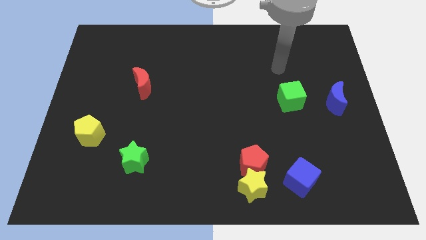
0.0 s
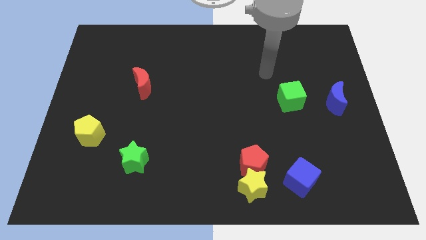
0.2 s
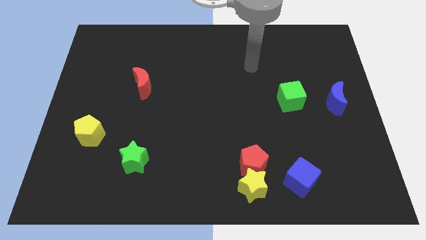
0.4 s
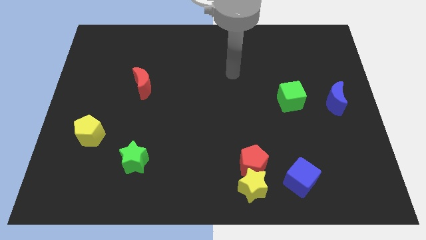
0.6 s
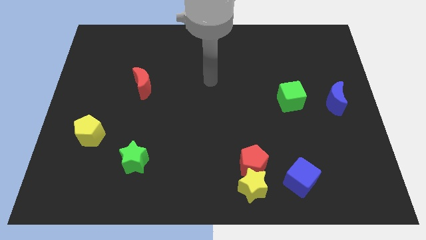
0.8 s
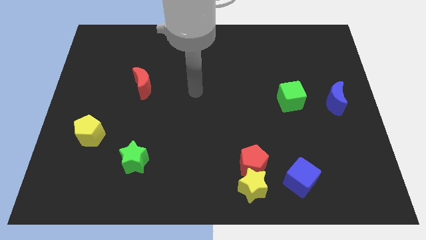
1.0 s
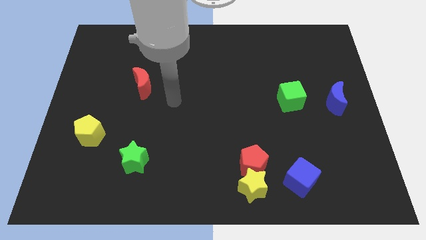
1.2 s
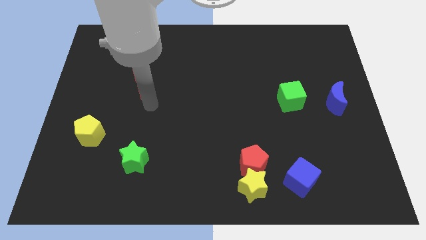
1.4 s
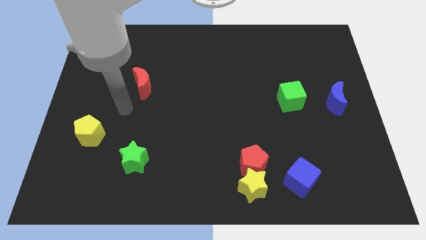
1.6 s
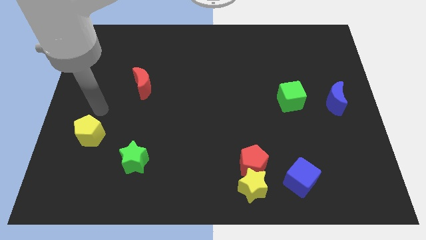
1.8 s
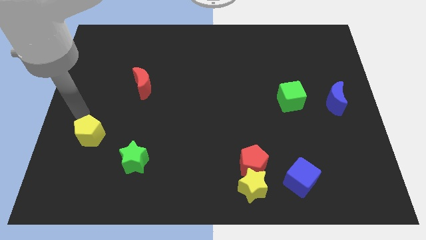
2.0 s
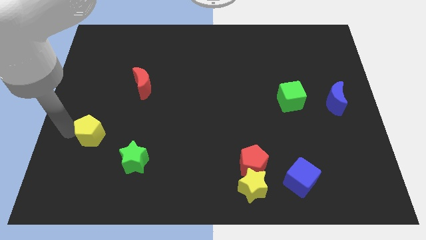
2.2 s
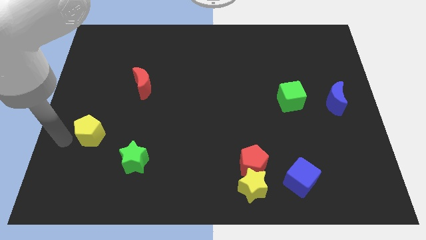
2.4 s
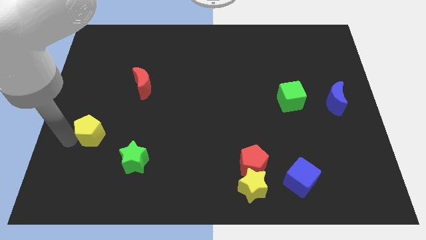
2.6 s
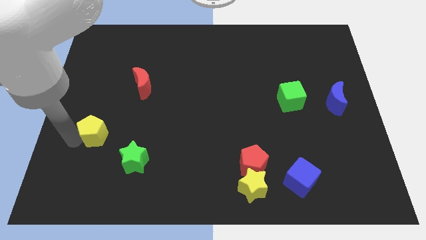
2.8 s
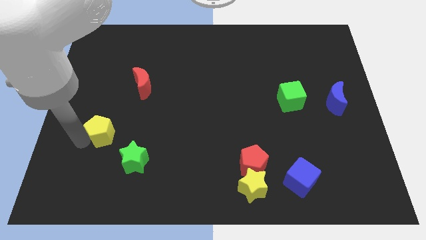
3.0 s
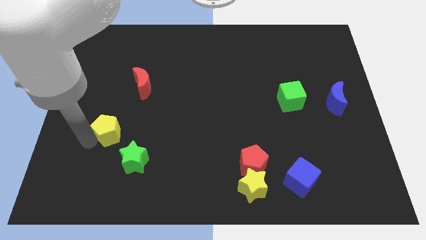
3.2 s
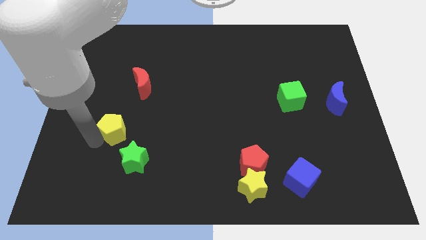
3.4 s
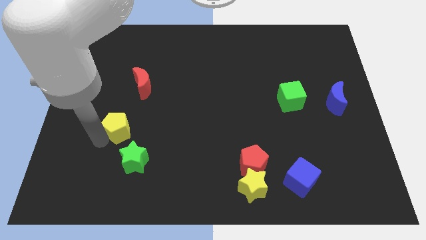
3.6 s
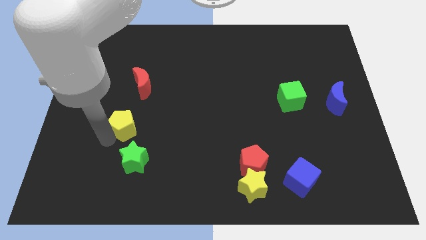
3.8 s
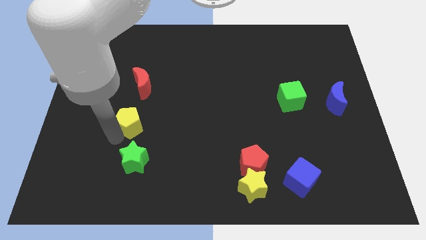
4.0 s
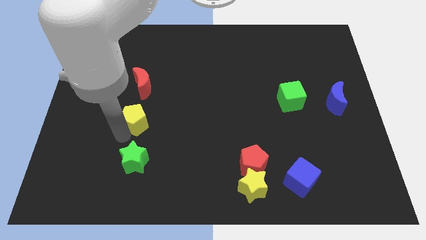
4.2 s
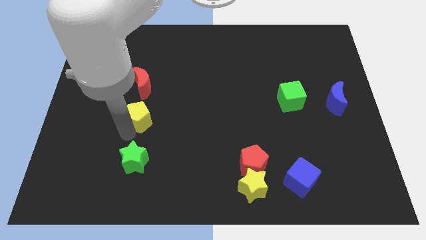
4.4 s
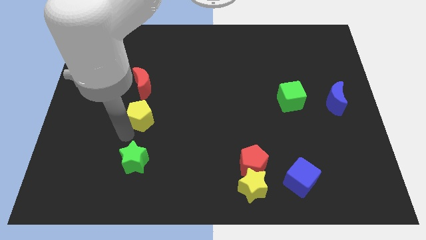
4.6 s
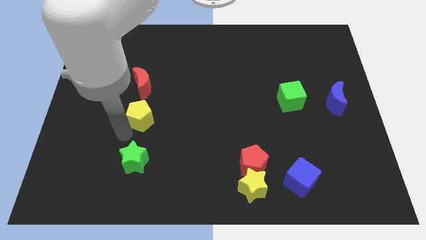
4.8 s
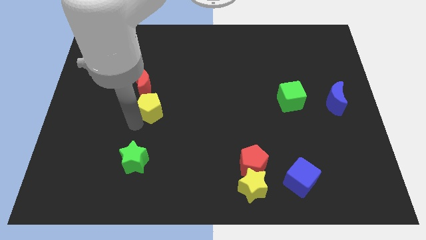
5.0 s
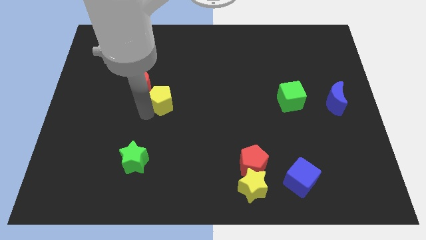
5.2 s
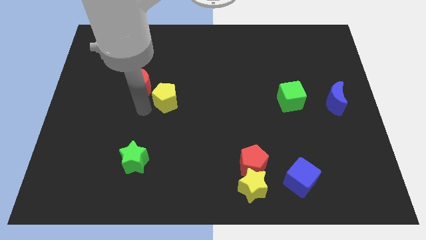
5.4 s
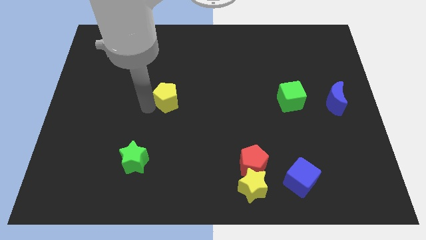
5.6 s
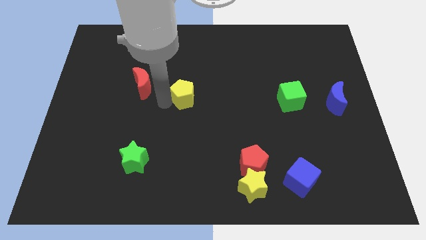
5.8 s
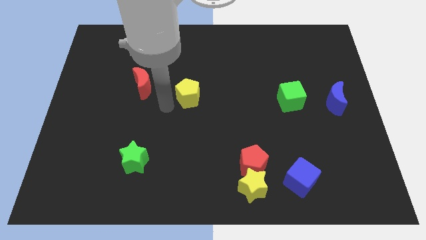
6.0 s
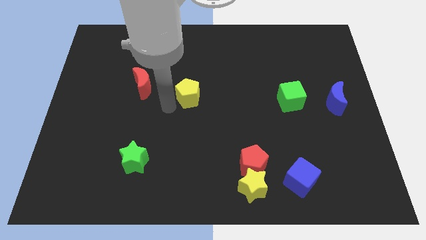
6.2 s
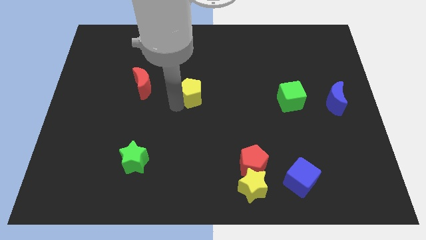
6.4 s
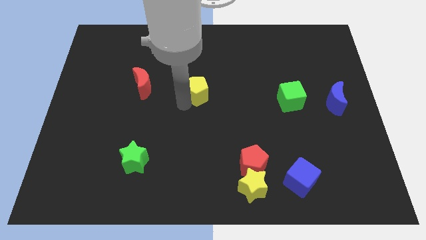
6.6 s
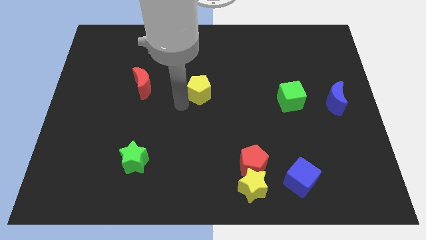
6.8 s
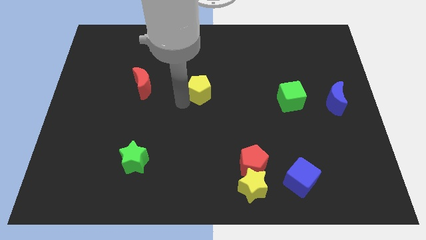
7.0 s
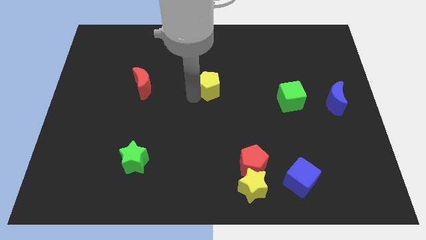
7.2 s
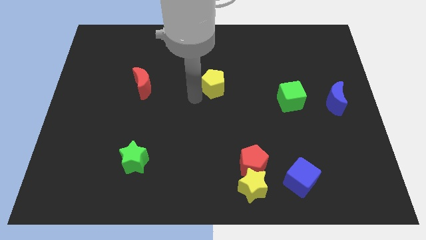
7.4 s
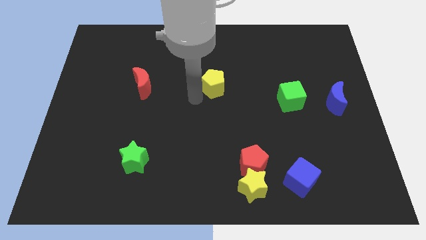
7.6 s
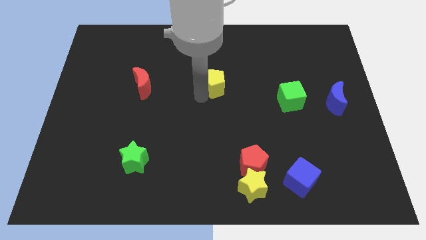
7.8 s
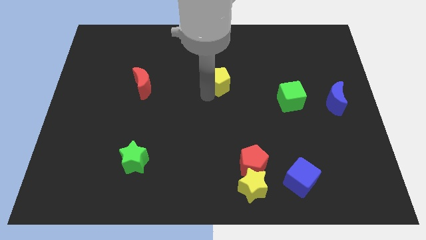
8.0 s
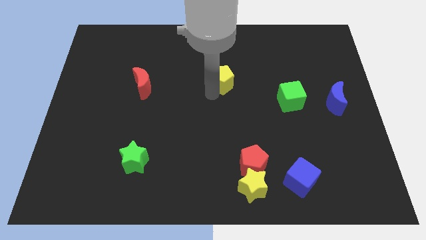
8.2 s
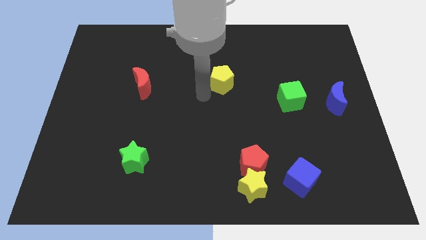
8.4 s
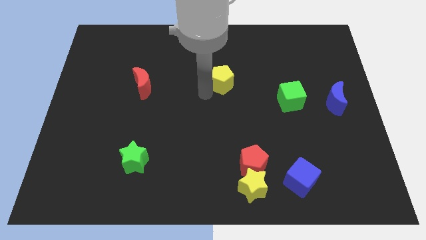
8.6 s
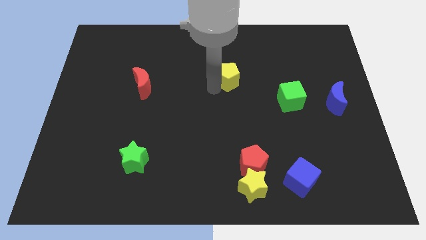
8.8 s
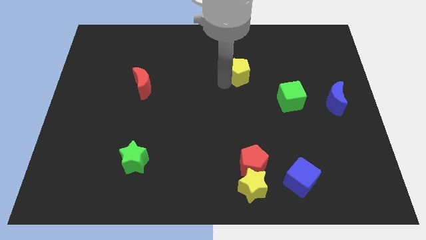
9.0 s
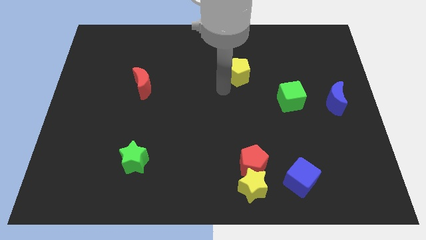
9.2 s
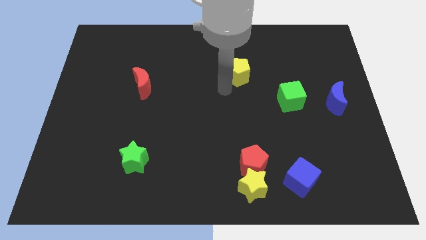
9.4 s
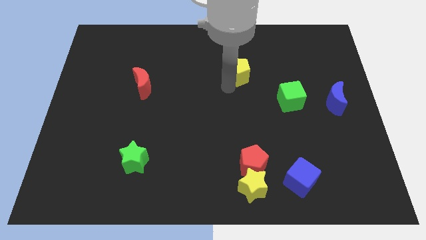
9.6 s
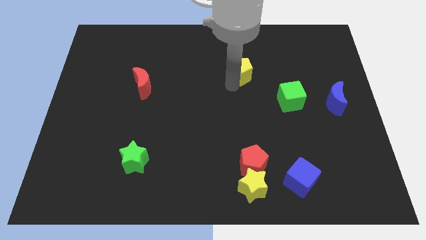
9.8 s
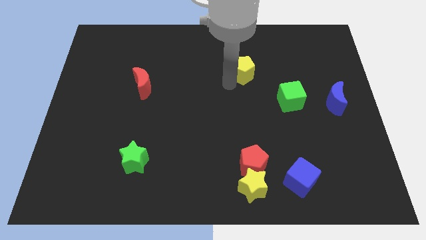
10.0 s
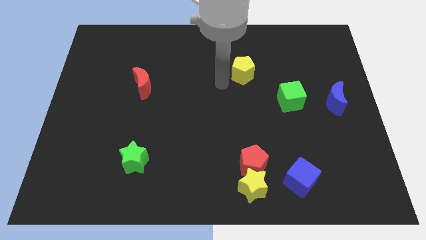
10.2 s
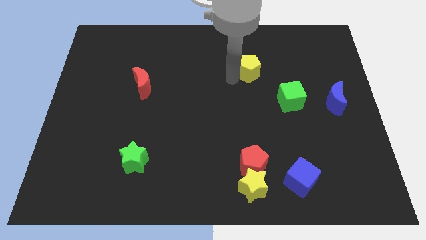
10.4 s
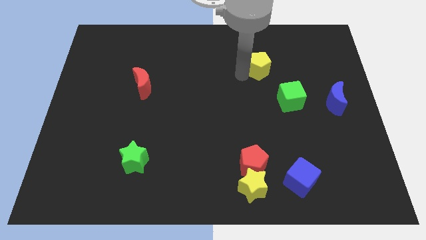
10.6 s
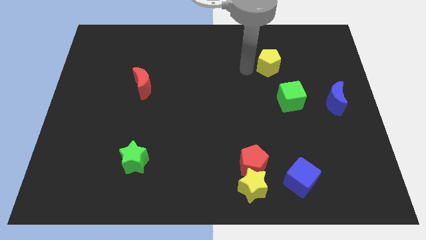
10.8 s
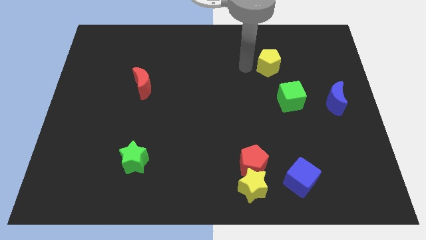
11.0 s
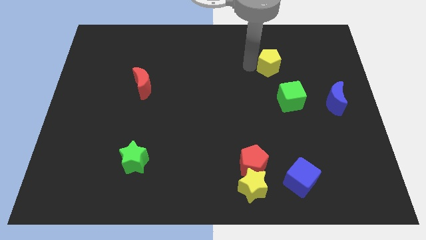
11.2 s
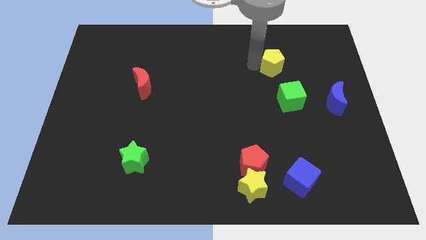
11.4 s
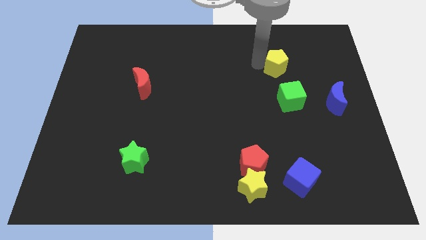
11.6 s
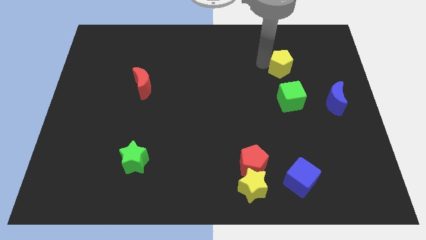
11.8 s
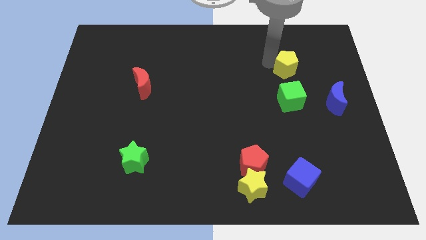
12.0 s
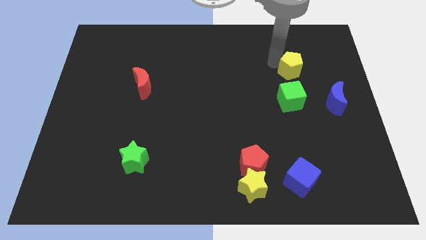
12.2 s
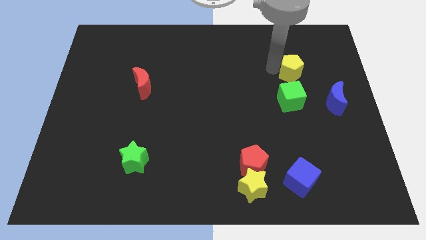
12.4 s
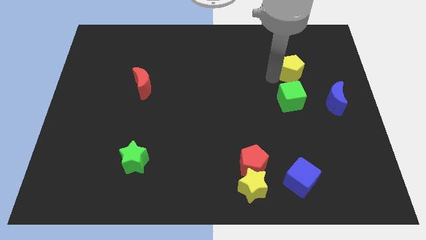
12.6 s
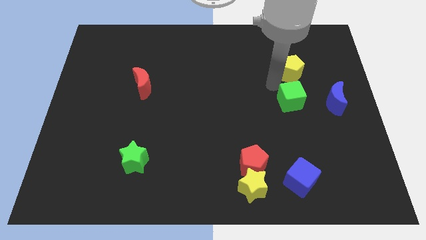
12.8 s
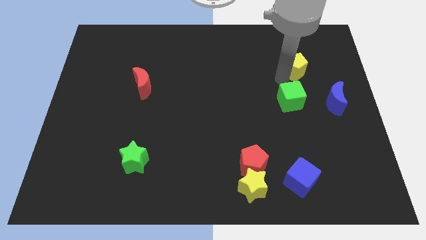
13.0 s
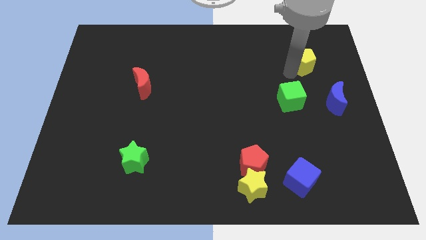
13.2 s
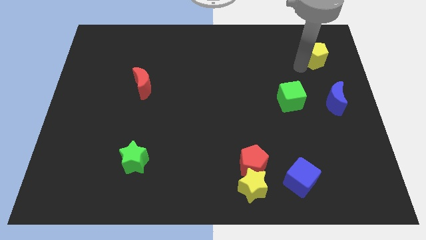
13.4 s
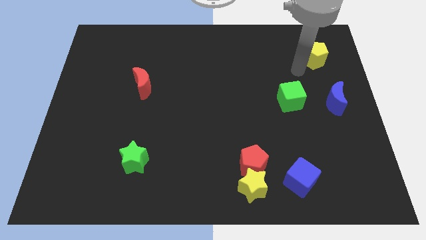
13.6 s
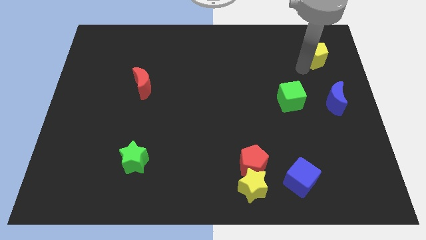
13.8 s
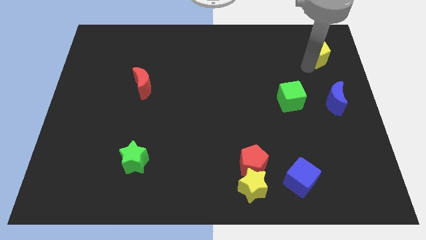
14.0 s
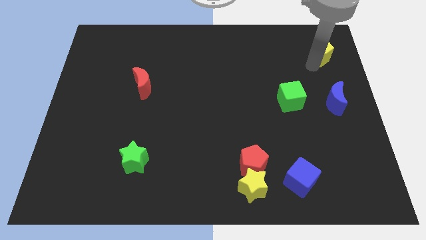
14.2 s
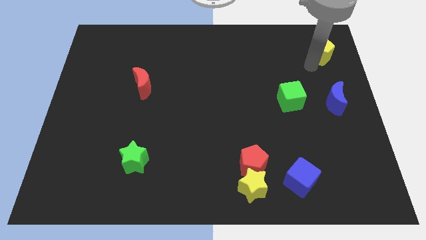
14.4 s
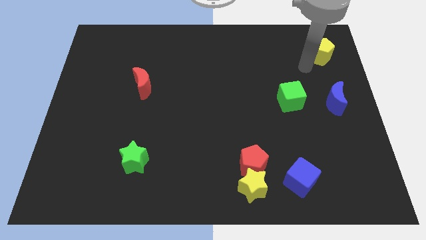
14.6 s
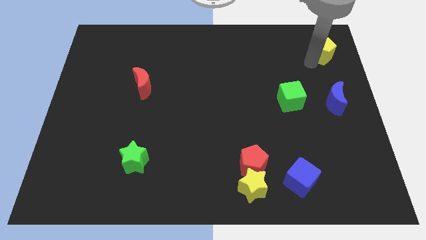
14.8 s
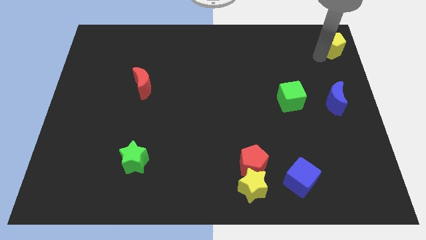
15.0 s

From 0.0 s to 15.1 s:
slide the yellow pentagon to the top right of the board
